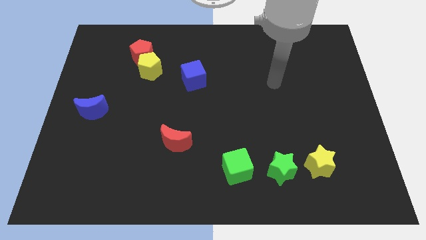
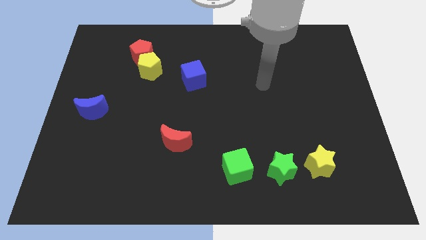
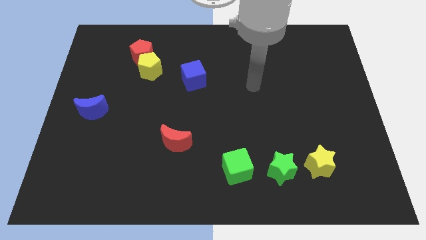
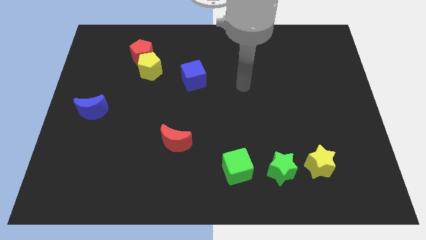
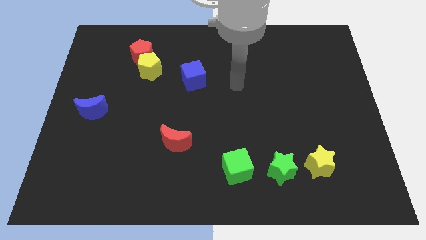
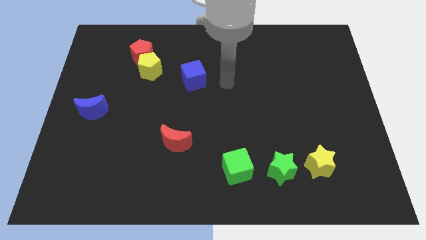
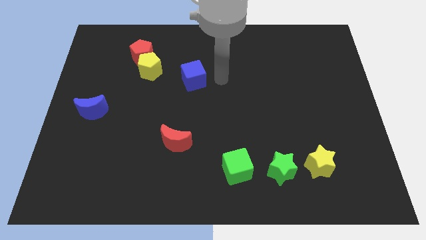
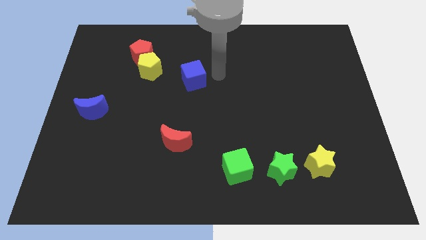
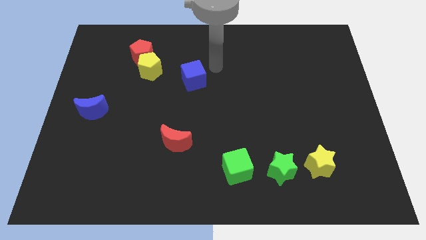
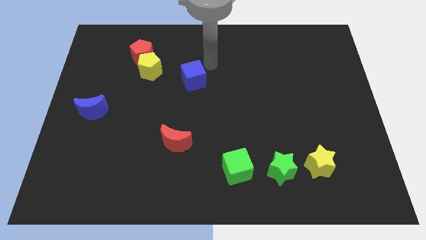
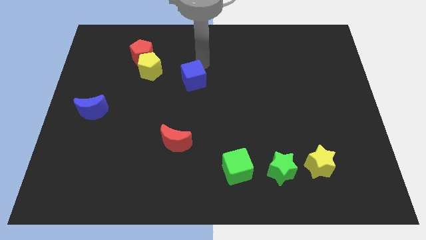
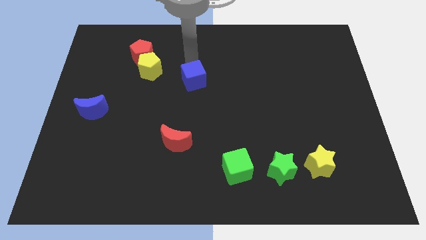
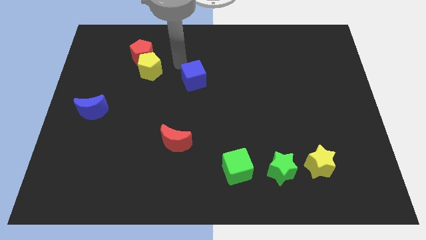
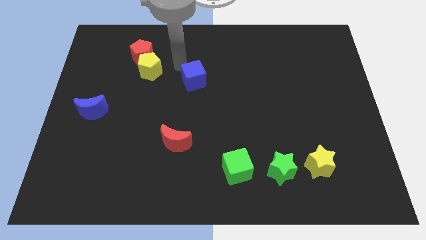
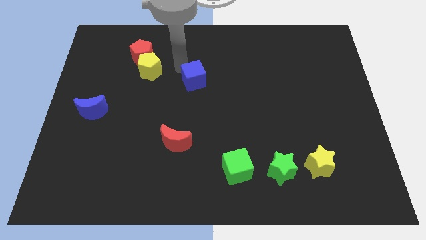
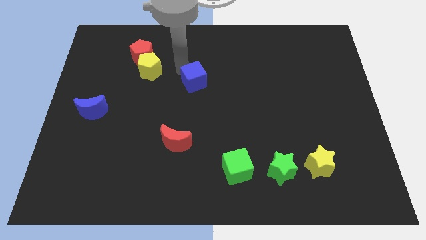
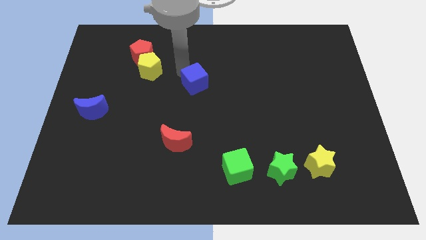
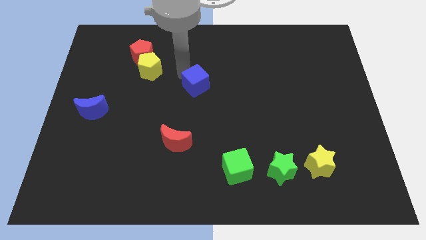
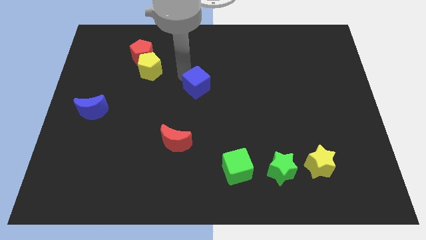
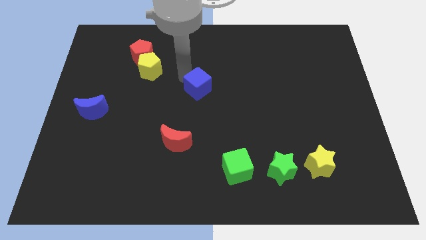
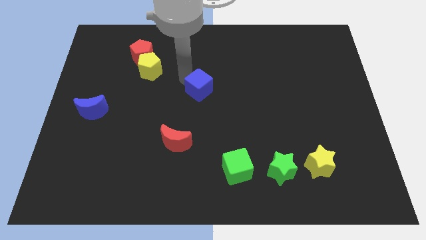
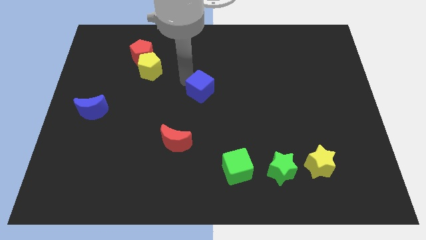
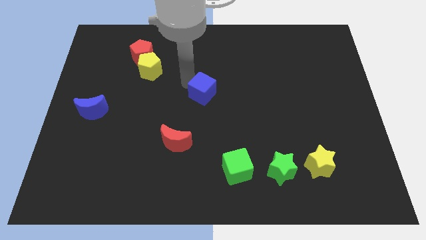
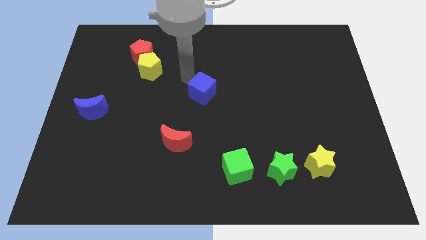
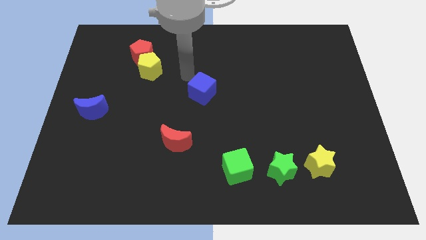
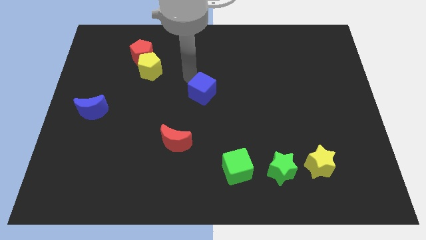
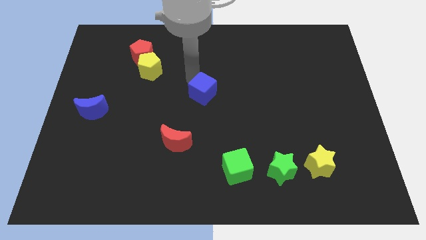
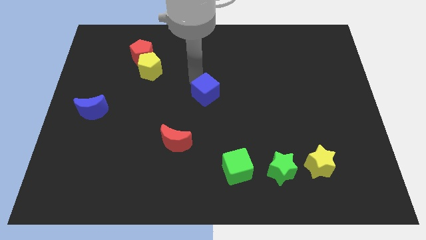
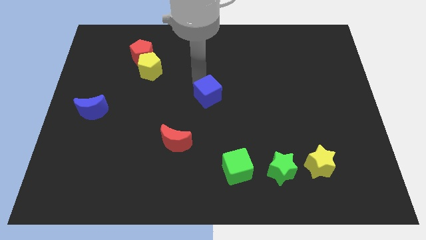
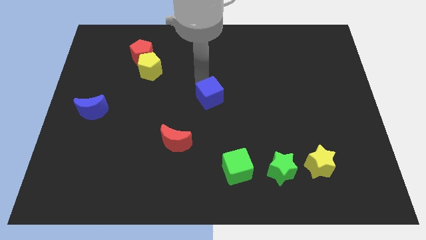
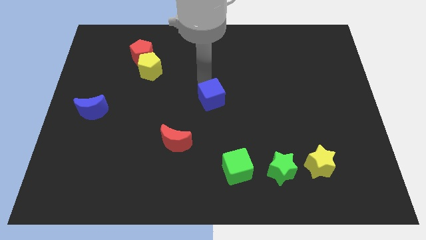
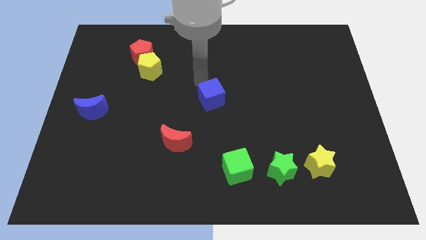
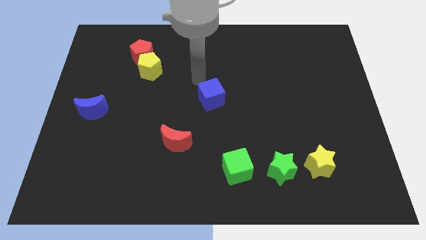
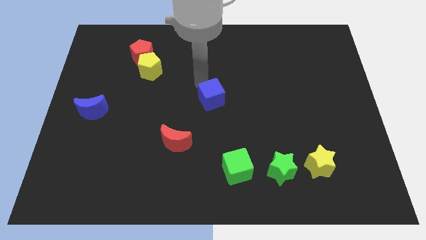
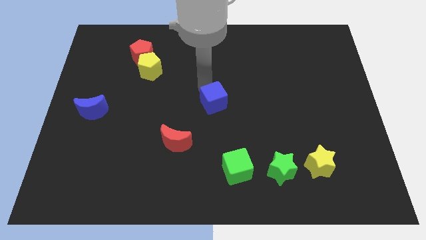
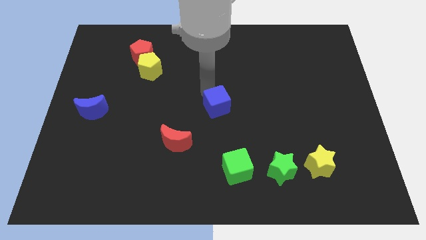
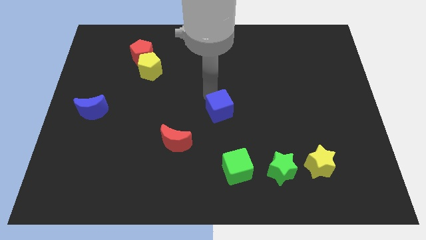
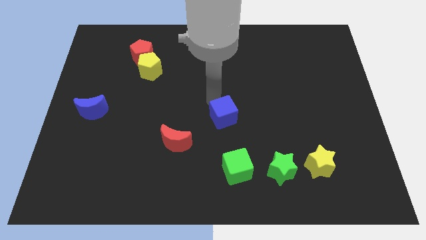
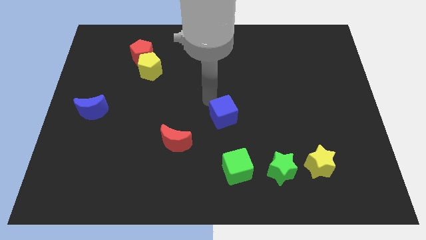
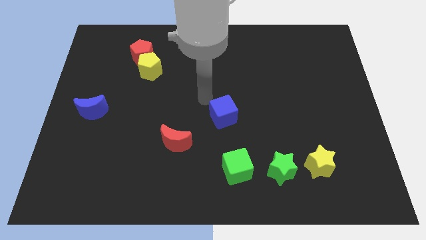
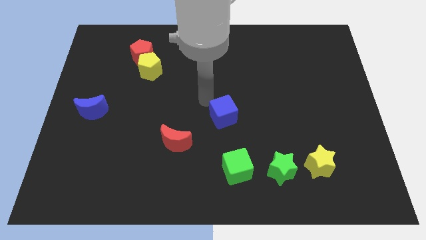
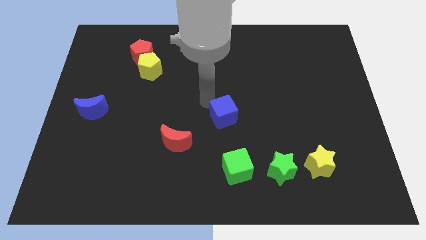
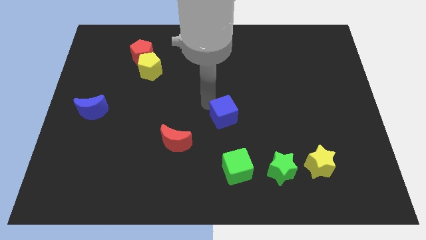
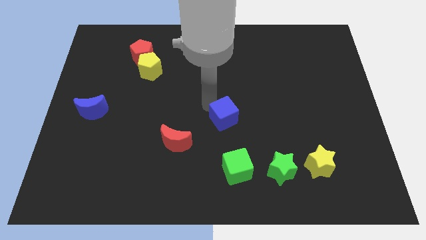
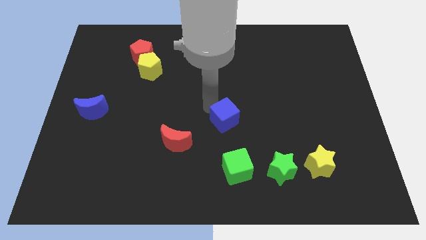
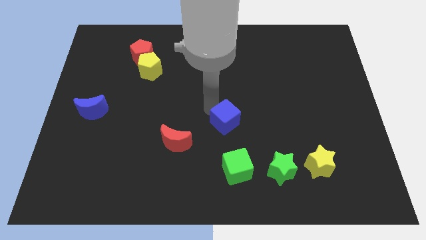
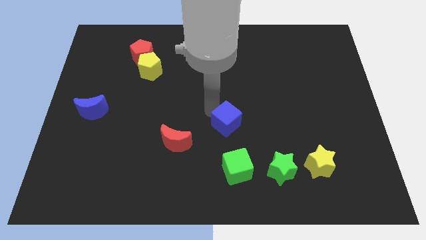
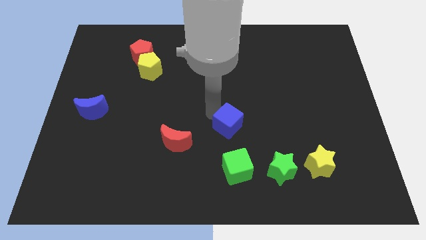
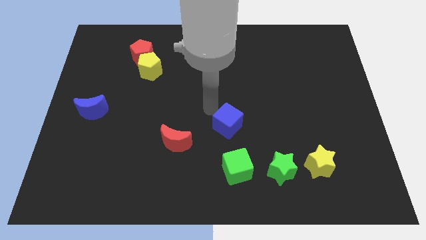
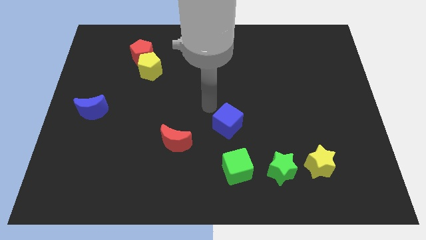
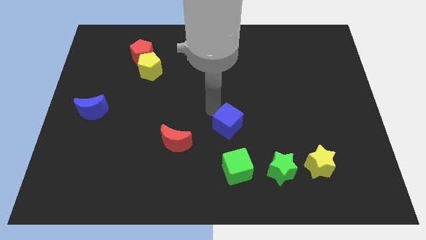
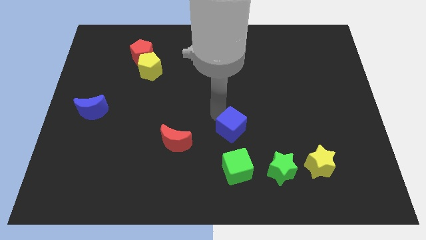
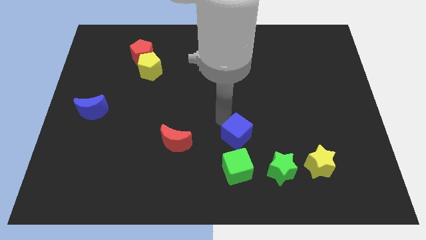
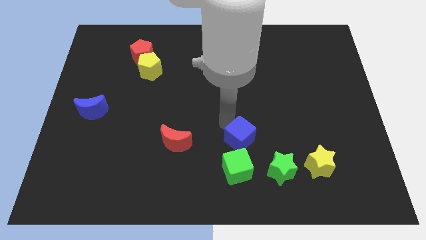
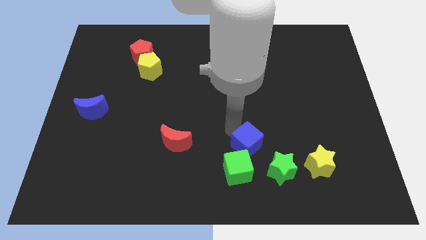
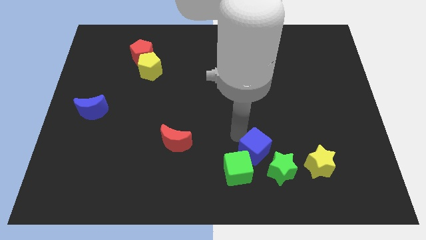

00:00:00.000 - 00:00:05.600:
put the blue cube to the left side of the yellow star

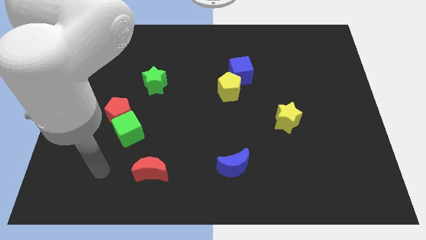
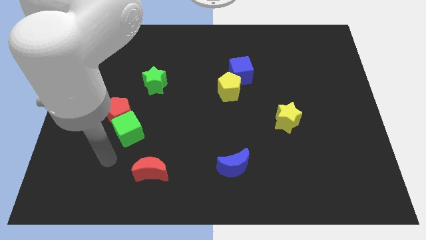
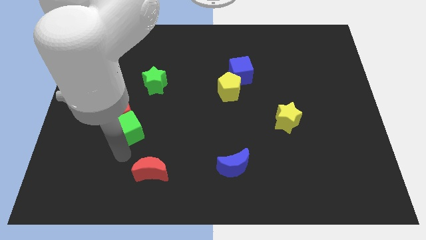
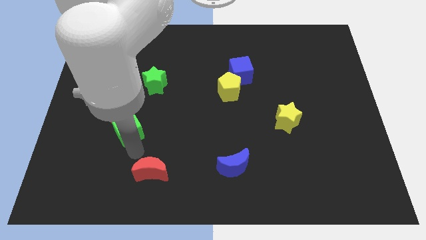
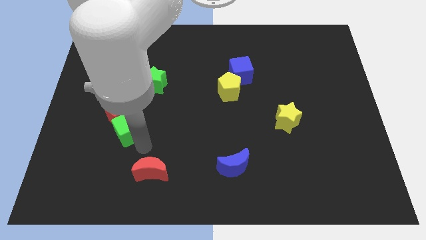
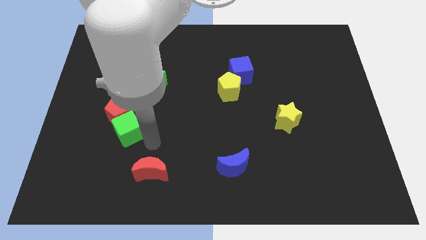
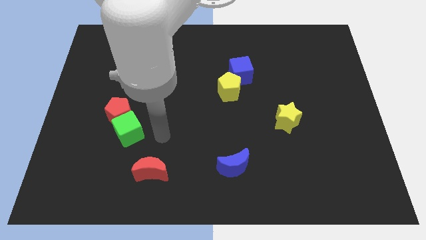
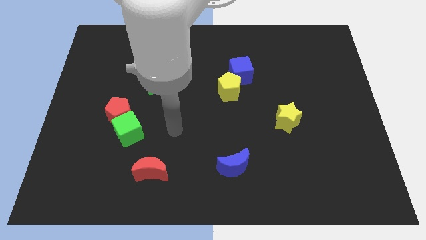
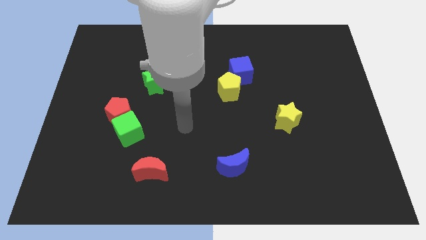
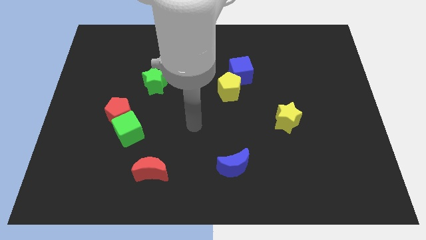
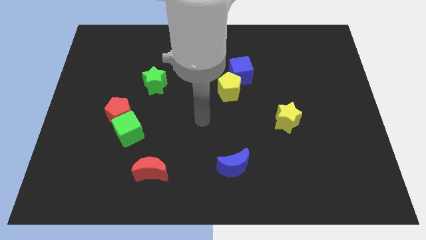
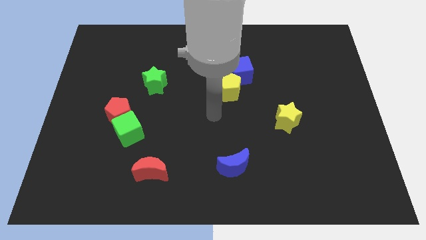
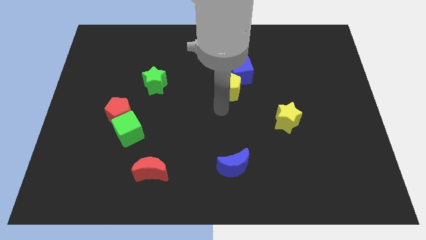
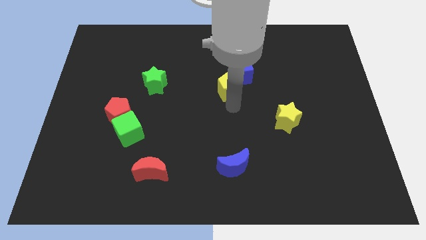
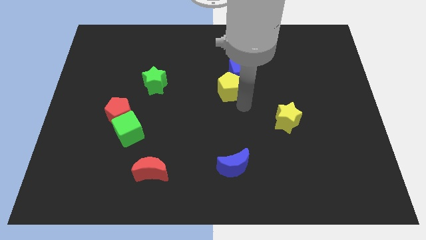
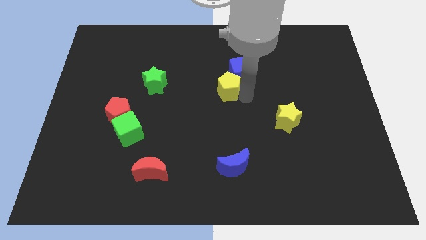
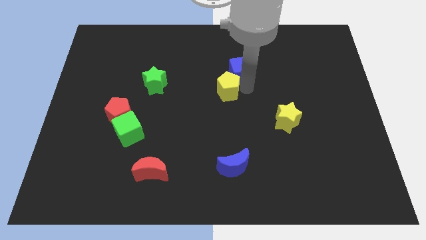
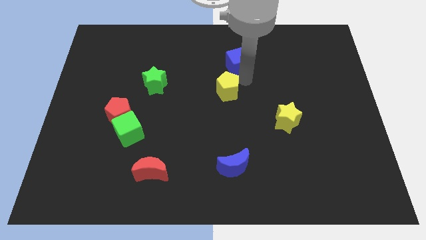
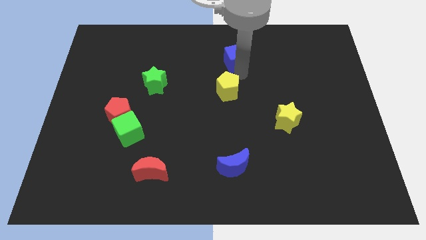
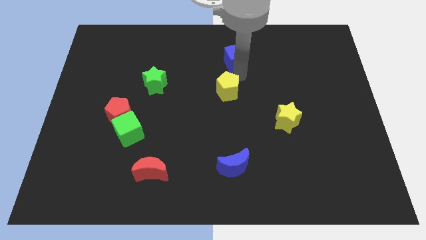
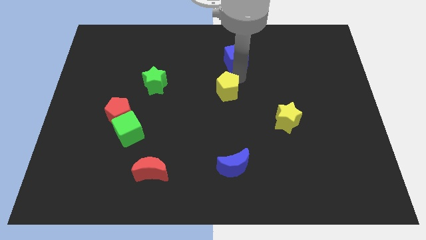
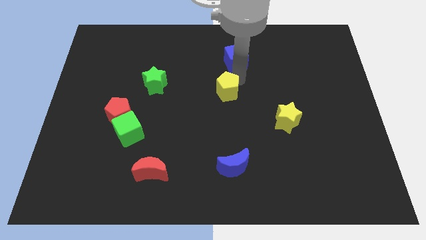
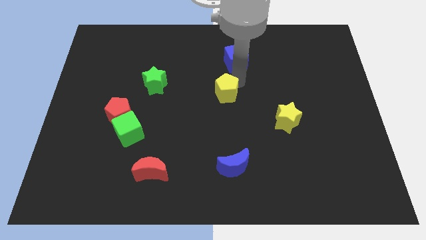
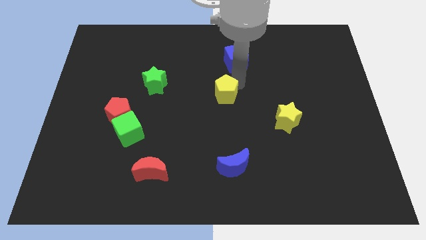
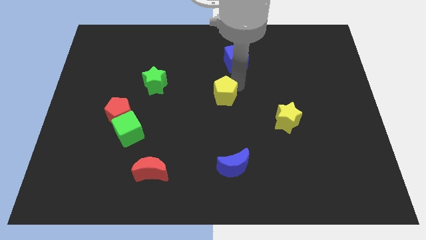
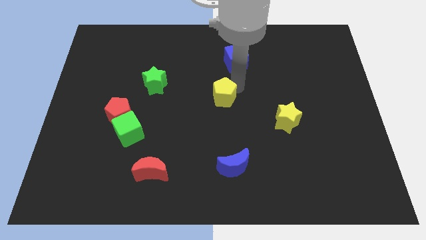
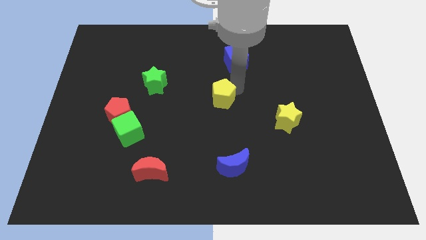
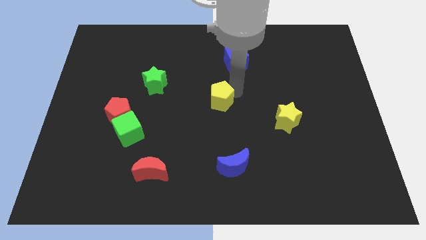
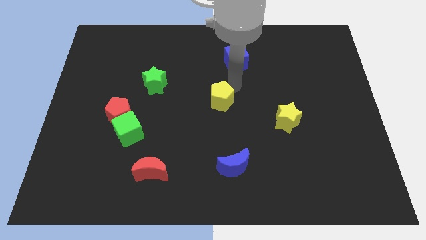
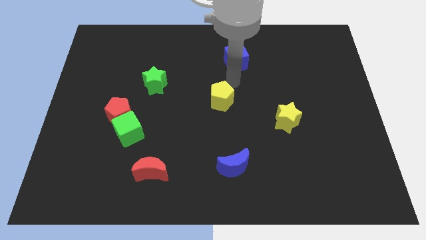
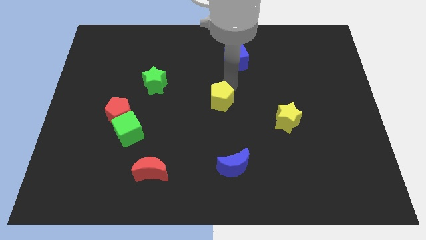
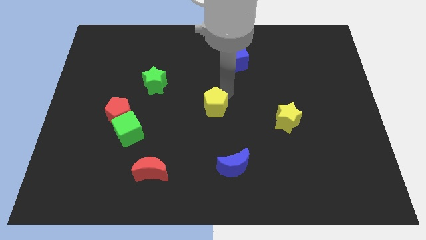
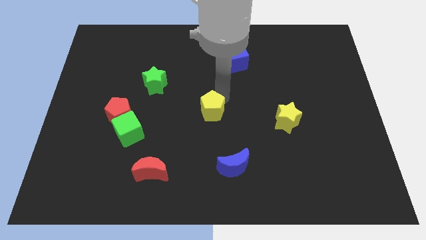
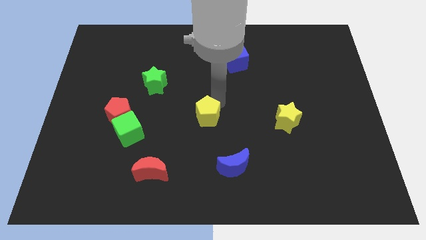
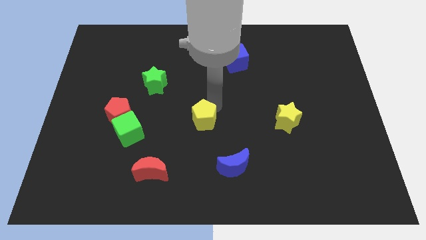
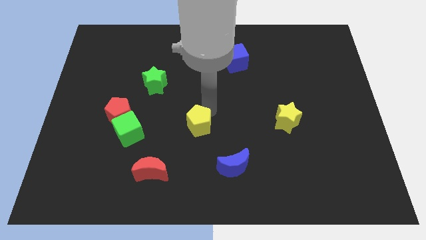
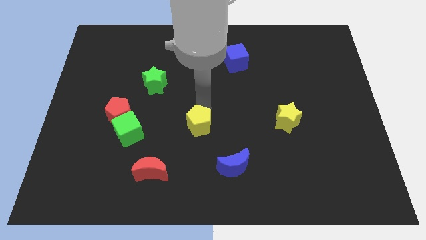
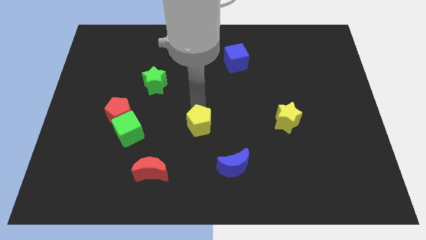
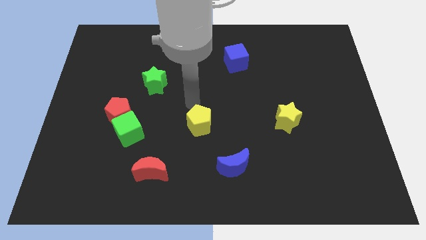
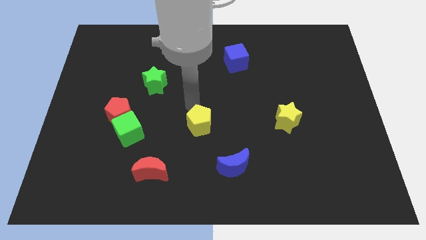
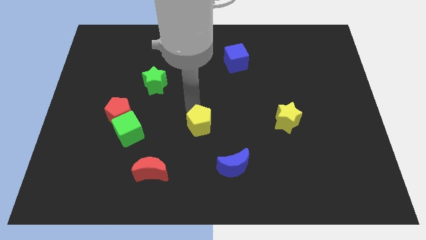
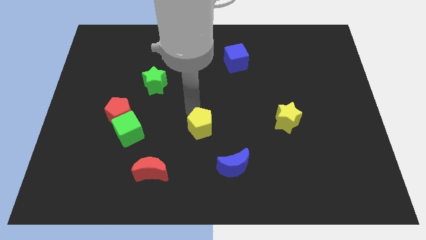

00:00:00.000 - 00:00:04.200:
slide the yellow pentagon to the top left of the blue moon
